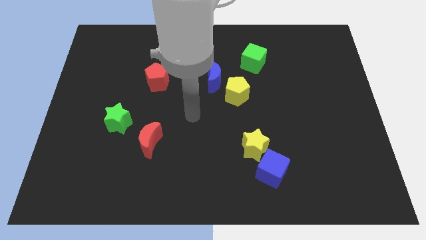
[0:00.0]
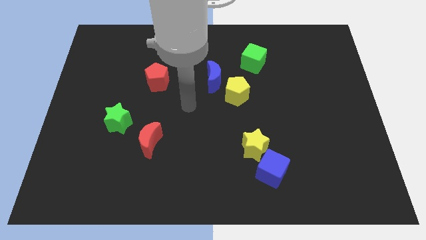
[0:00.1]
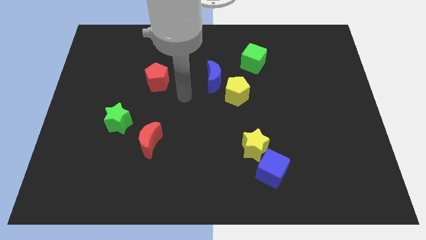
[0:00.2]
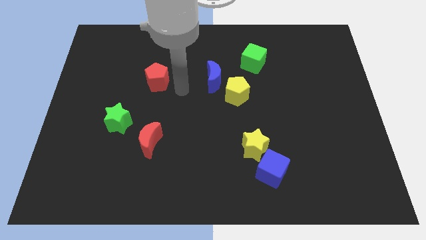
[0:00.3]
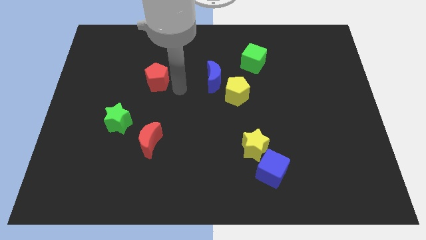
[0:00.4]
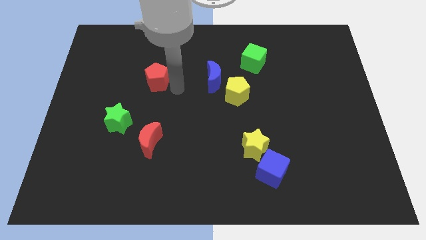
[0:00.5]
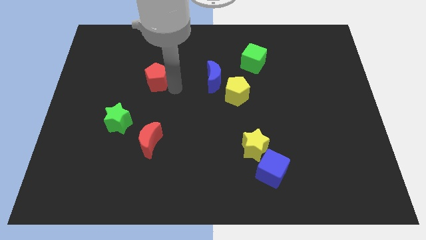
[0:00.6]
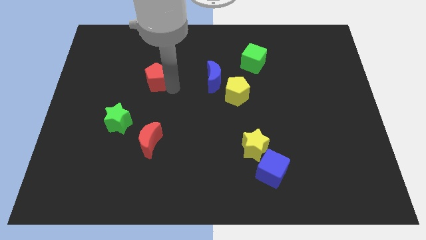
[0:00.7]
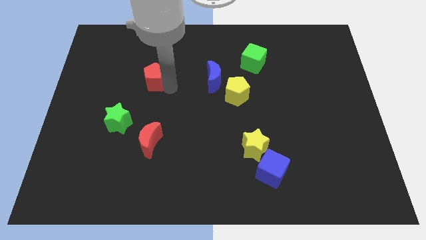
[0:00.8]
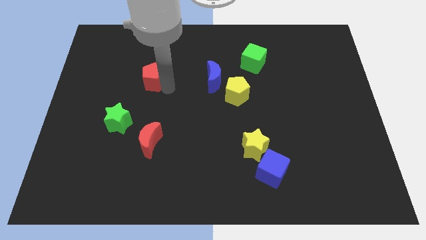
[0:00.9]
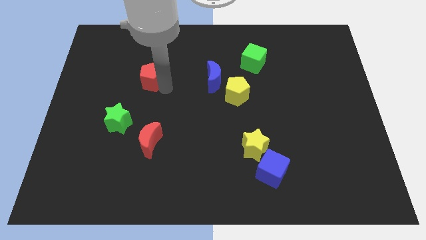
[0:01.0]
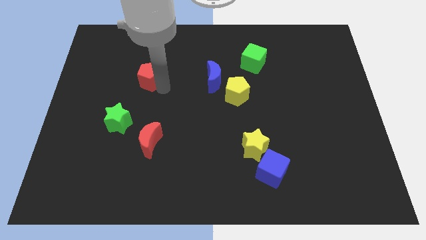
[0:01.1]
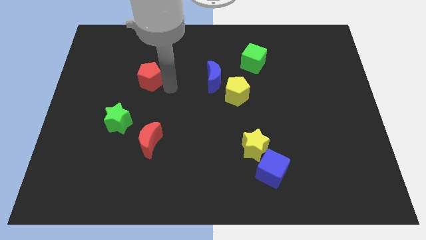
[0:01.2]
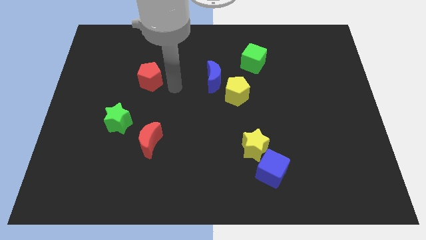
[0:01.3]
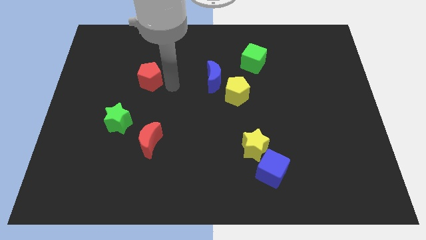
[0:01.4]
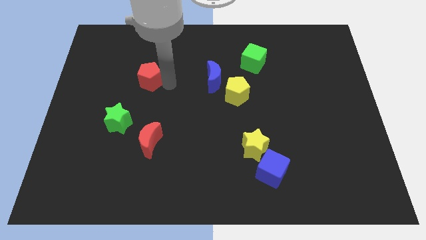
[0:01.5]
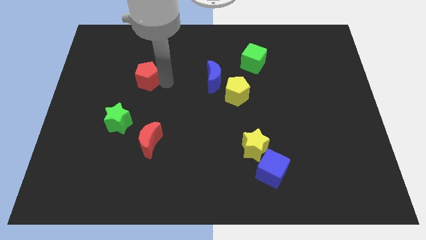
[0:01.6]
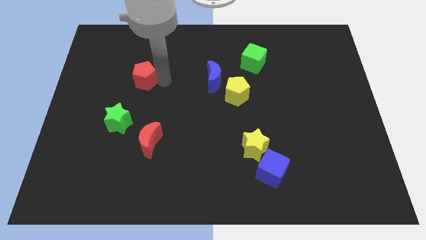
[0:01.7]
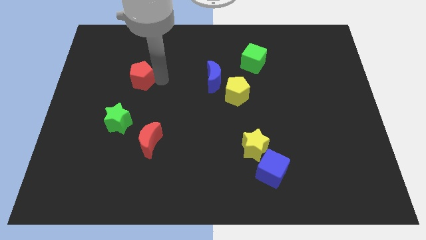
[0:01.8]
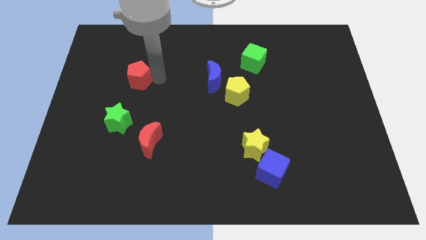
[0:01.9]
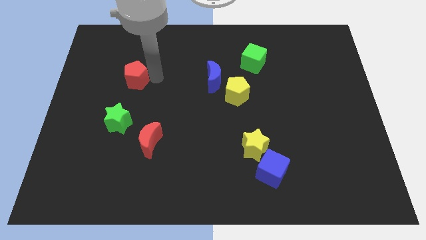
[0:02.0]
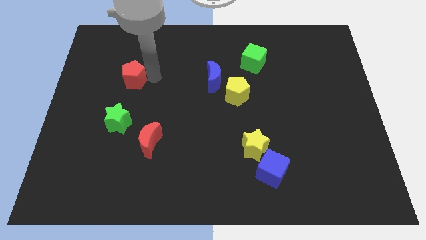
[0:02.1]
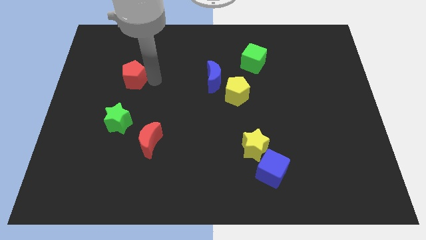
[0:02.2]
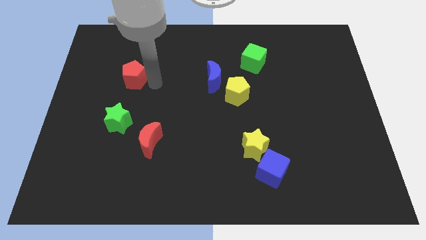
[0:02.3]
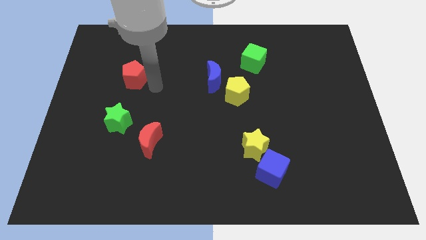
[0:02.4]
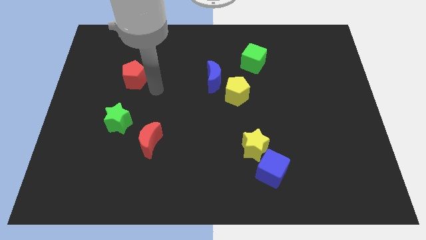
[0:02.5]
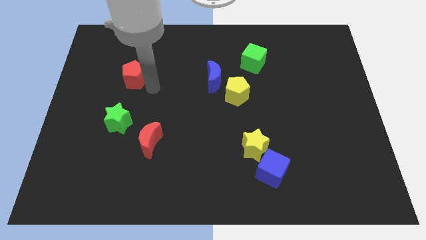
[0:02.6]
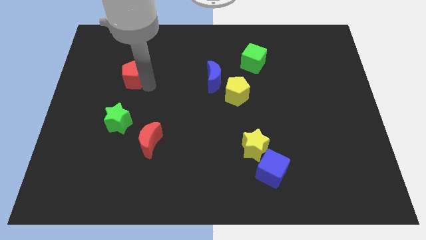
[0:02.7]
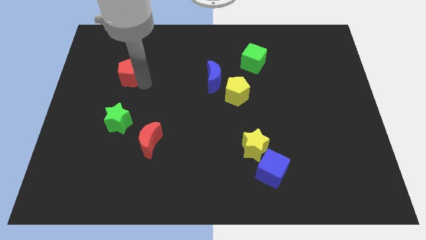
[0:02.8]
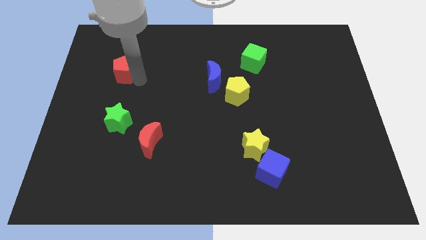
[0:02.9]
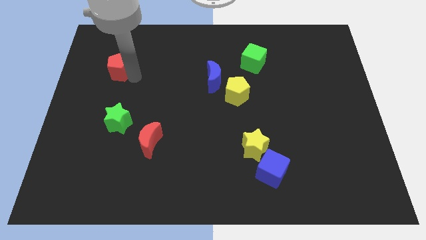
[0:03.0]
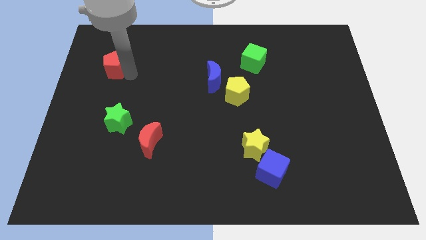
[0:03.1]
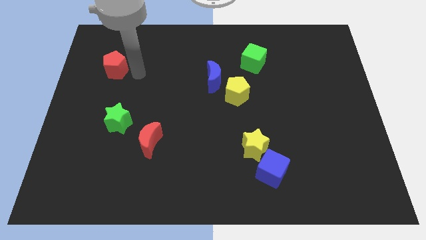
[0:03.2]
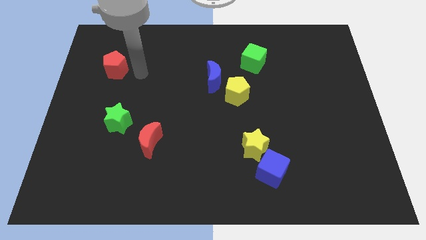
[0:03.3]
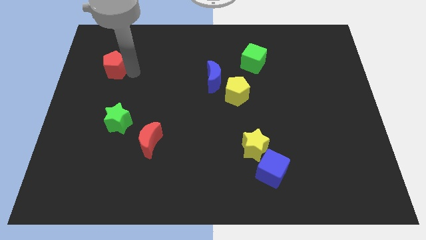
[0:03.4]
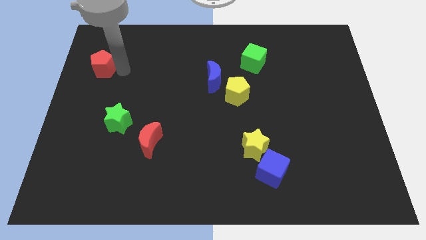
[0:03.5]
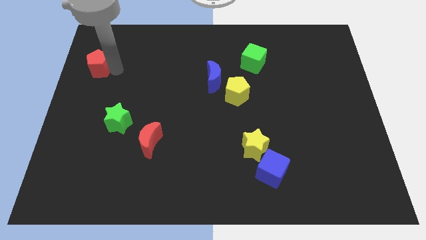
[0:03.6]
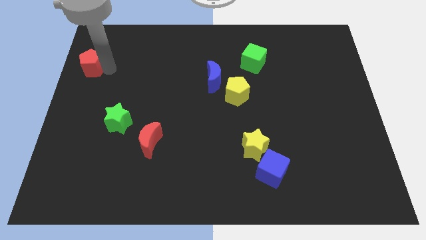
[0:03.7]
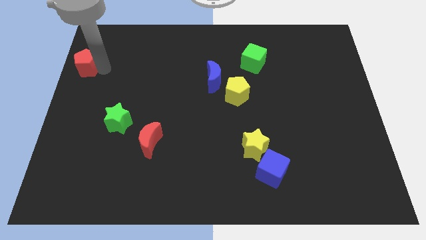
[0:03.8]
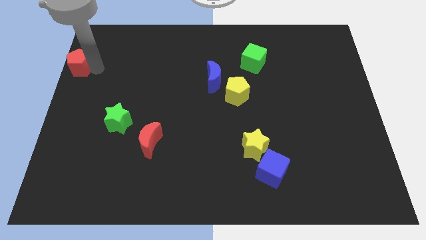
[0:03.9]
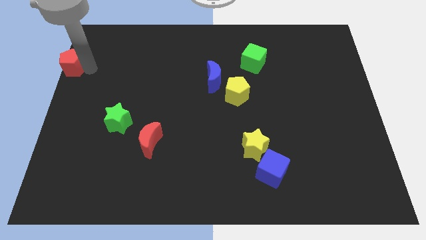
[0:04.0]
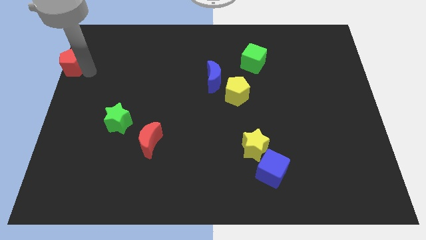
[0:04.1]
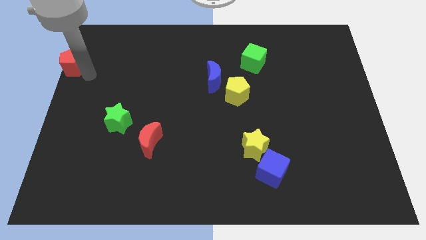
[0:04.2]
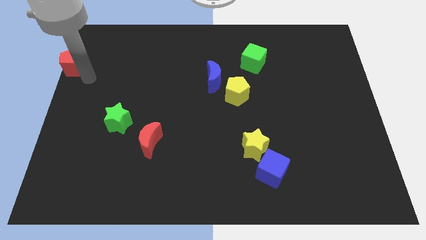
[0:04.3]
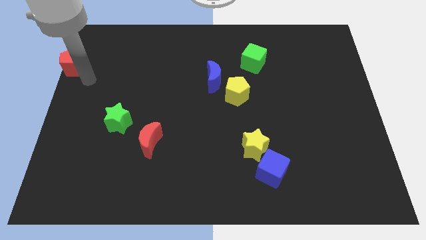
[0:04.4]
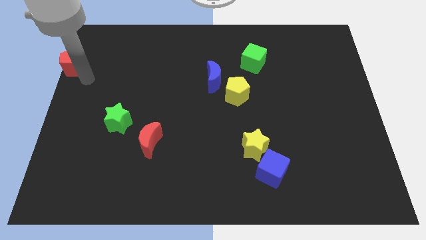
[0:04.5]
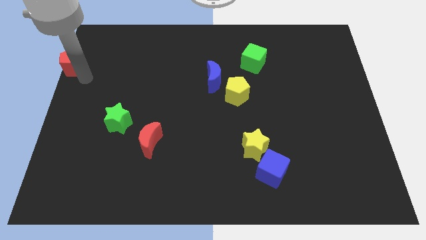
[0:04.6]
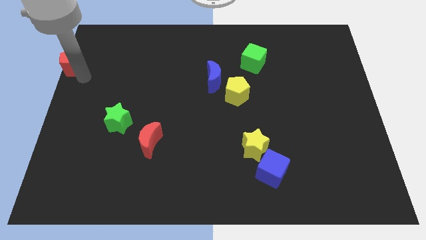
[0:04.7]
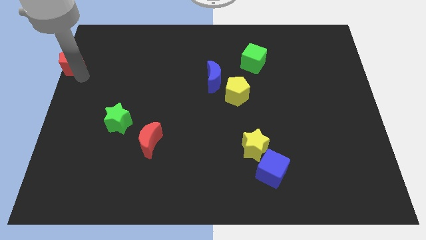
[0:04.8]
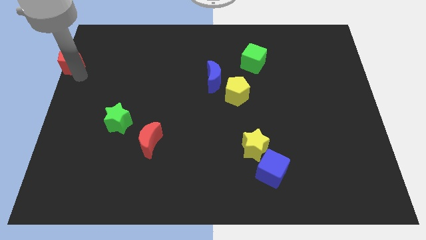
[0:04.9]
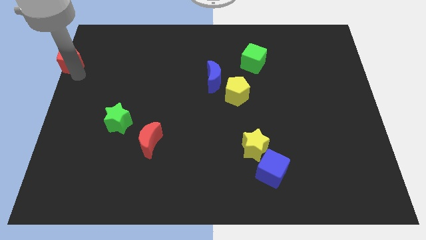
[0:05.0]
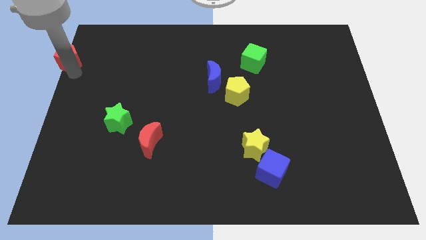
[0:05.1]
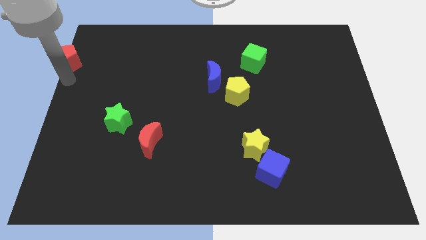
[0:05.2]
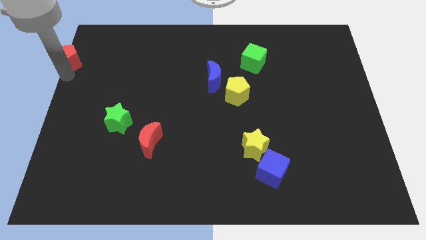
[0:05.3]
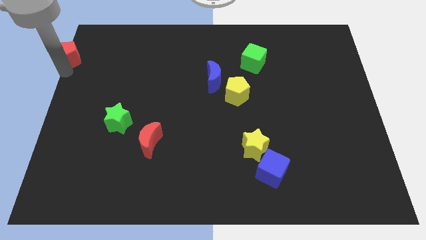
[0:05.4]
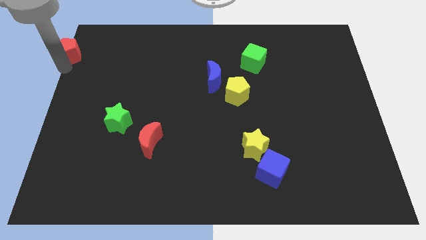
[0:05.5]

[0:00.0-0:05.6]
slide the red pentagon to the top left corner
